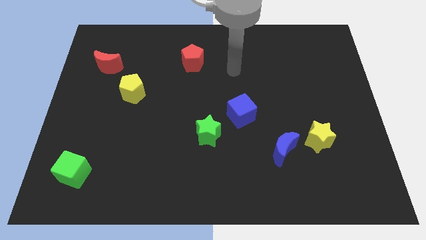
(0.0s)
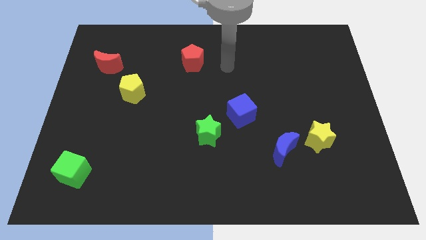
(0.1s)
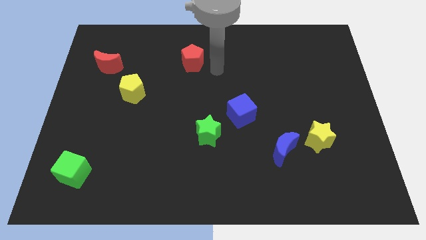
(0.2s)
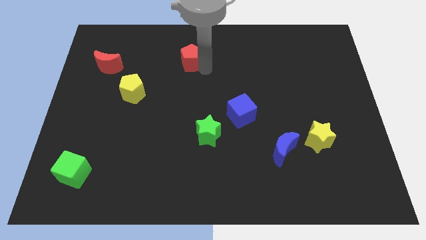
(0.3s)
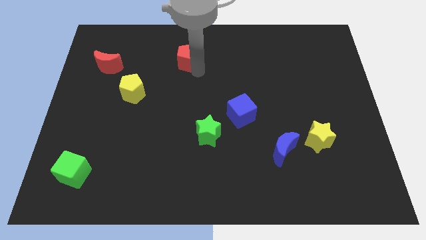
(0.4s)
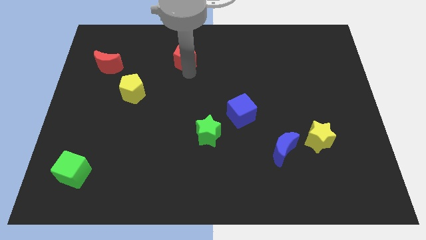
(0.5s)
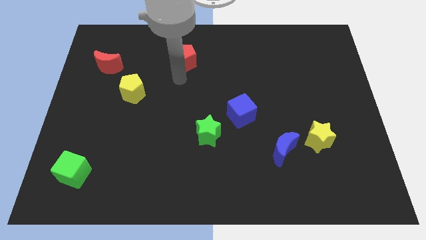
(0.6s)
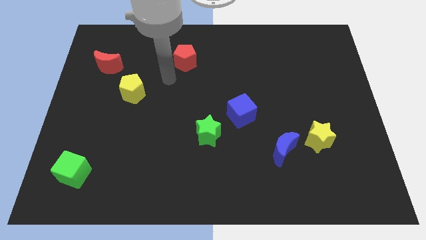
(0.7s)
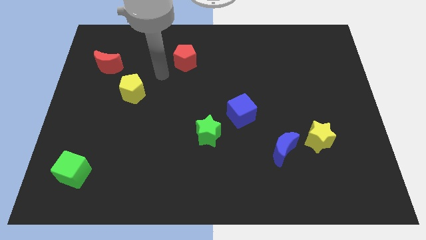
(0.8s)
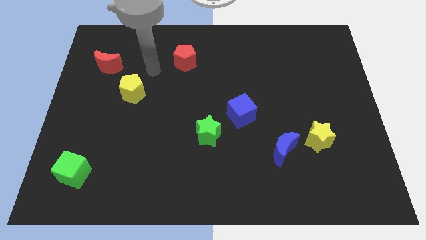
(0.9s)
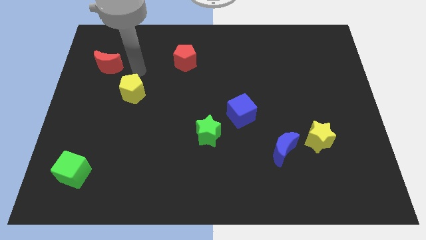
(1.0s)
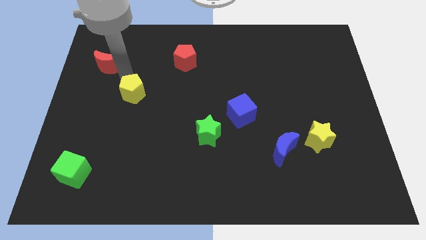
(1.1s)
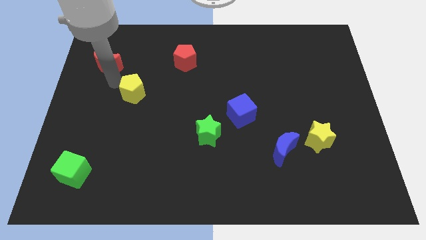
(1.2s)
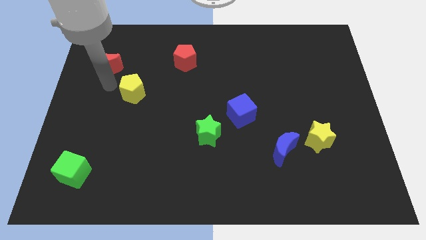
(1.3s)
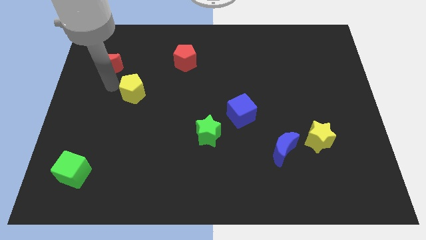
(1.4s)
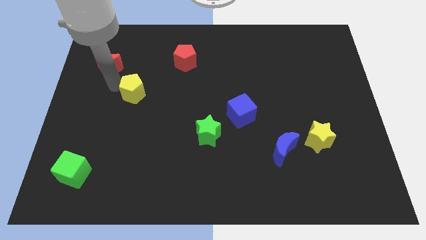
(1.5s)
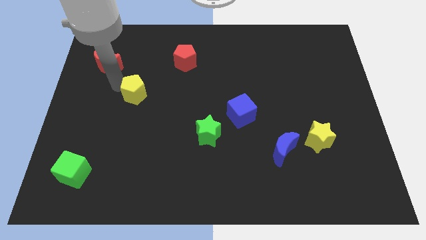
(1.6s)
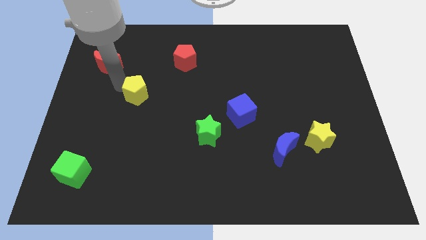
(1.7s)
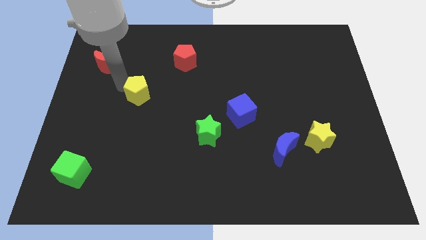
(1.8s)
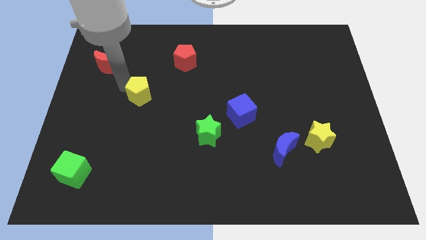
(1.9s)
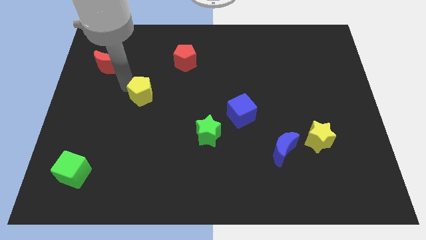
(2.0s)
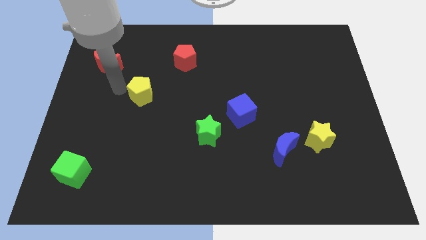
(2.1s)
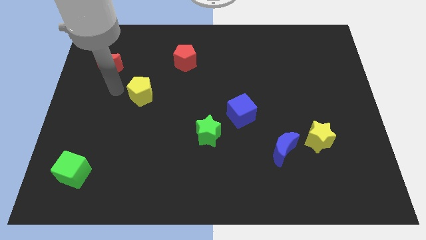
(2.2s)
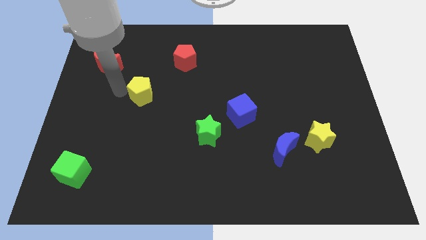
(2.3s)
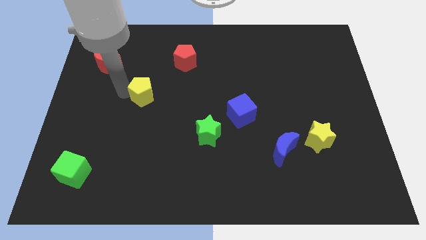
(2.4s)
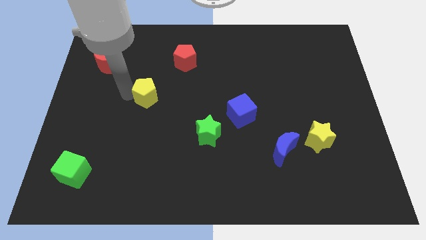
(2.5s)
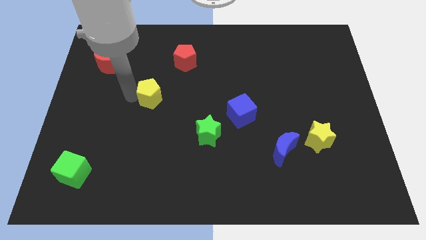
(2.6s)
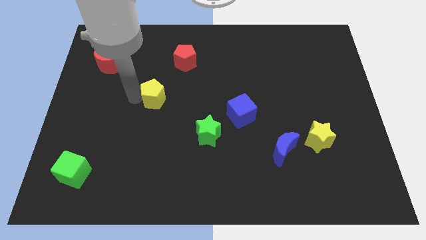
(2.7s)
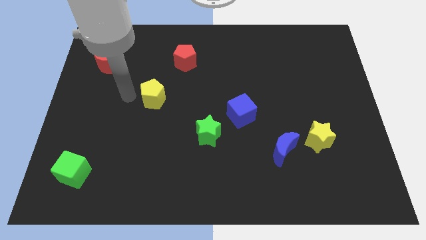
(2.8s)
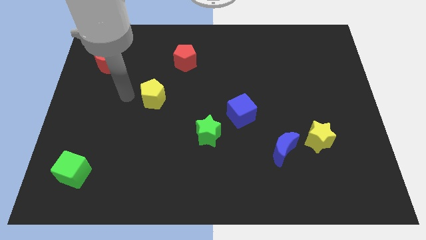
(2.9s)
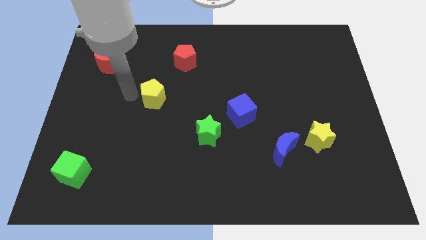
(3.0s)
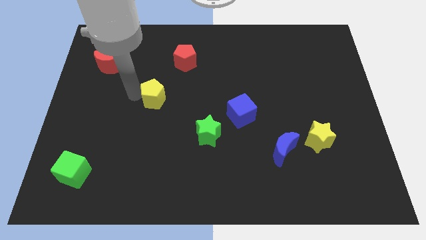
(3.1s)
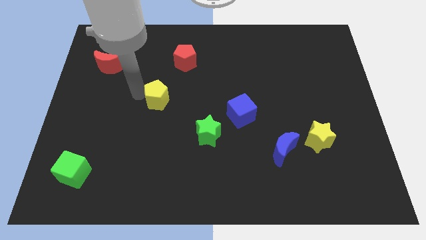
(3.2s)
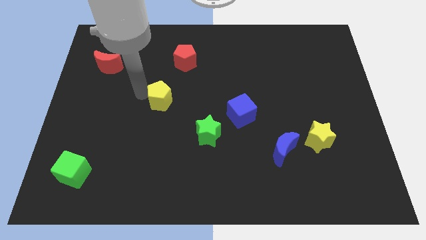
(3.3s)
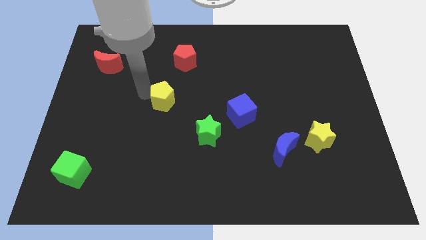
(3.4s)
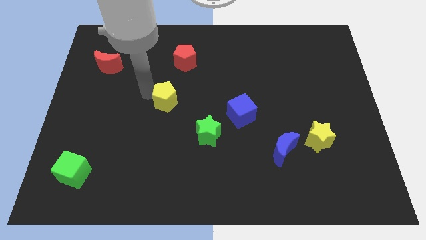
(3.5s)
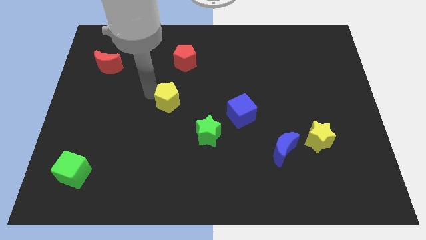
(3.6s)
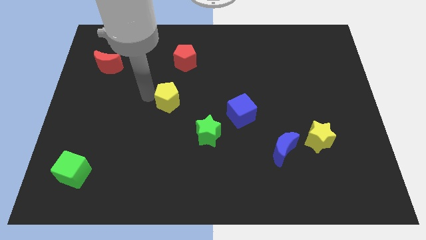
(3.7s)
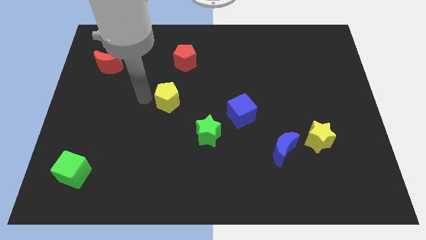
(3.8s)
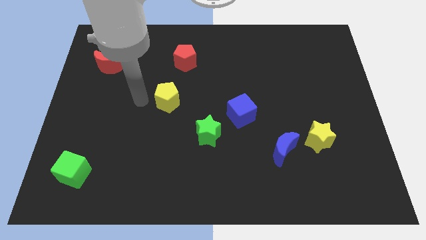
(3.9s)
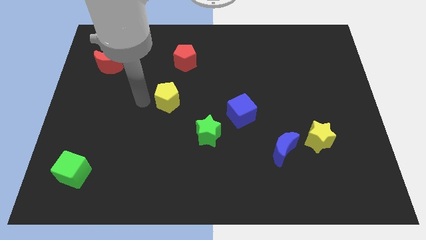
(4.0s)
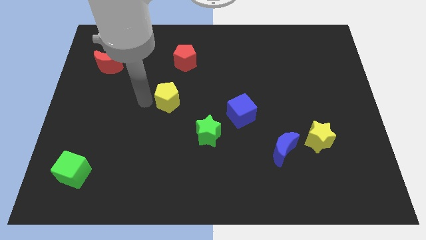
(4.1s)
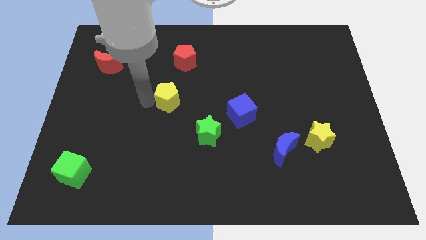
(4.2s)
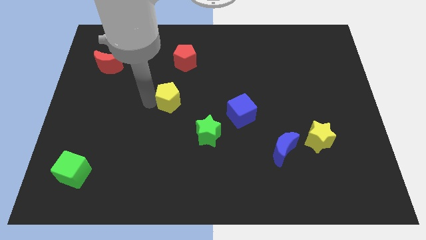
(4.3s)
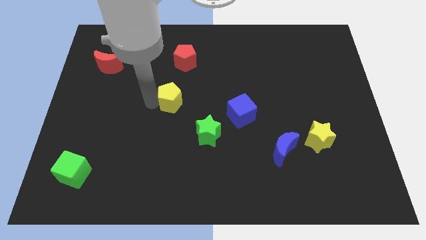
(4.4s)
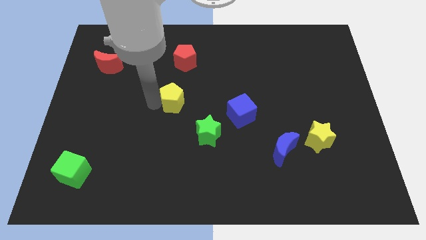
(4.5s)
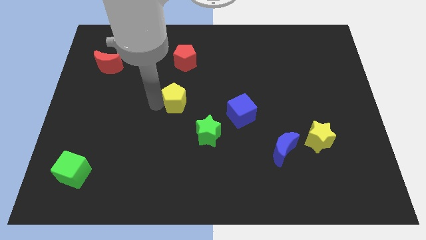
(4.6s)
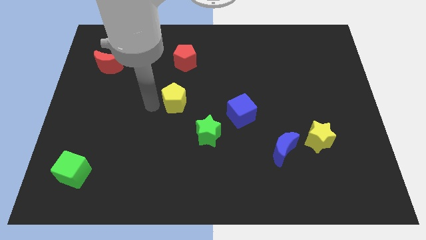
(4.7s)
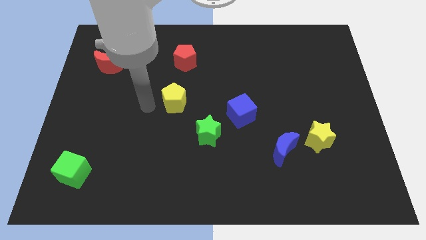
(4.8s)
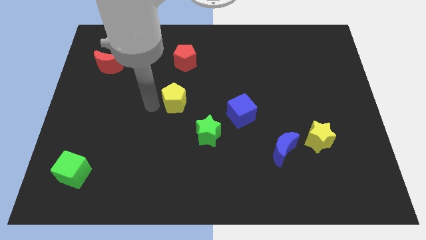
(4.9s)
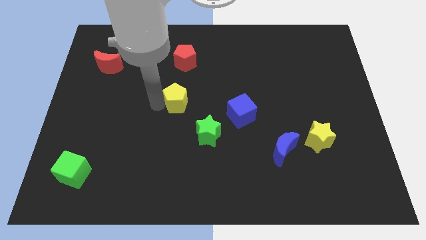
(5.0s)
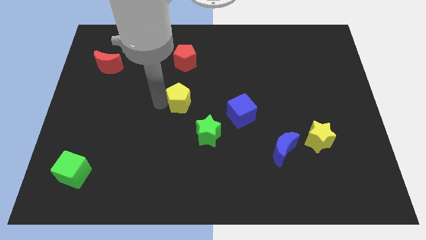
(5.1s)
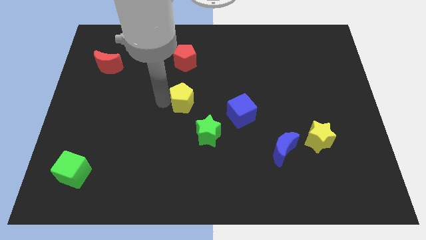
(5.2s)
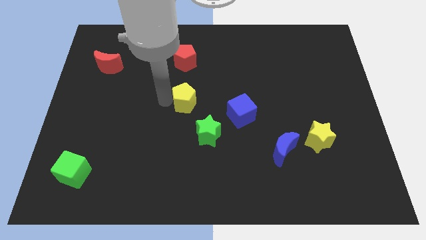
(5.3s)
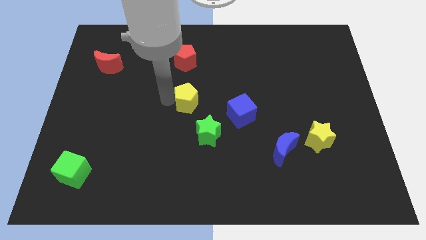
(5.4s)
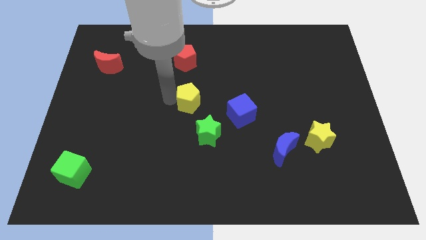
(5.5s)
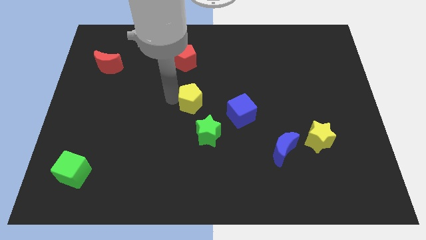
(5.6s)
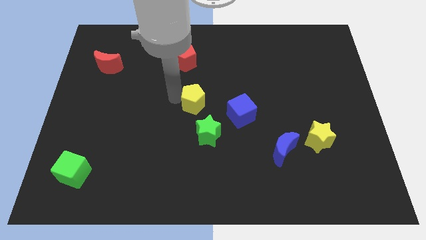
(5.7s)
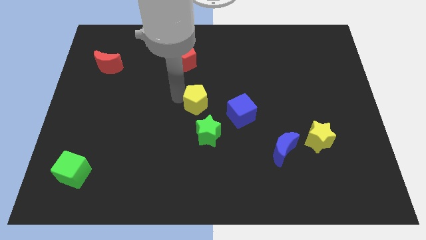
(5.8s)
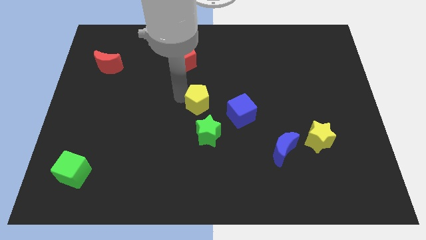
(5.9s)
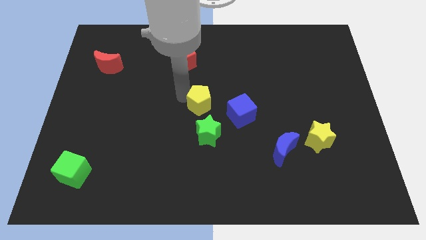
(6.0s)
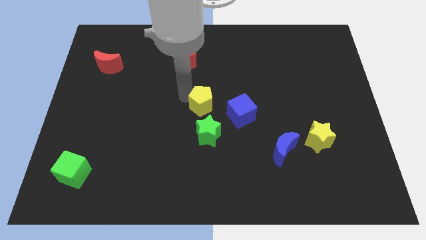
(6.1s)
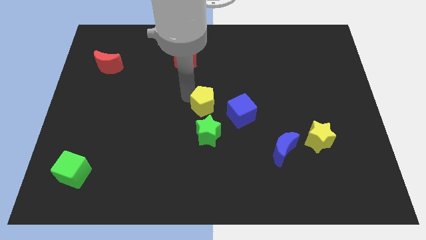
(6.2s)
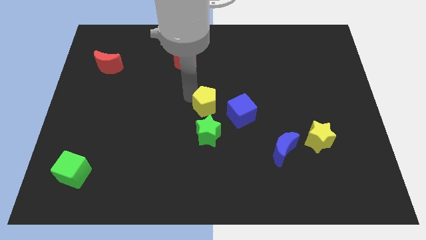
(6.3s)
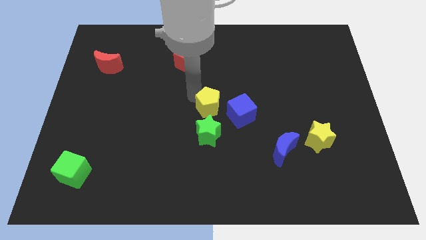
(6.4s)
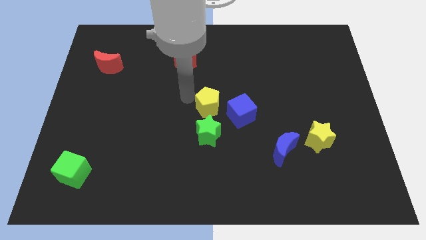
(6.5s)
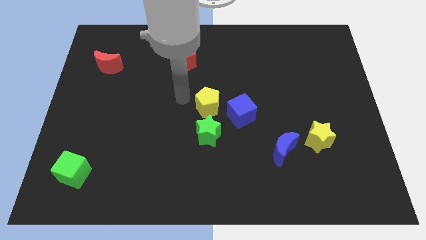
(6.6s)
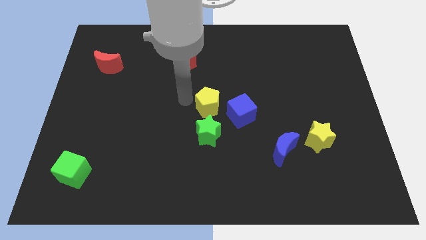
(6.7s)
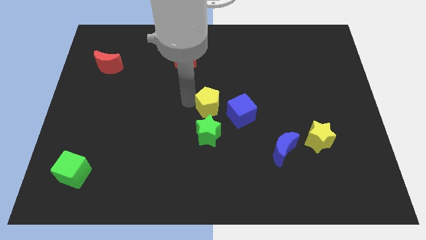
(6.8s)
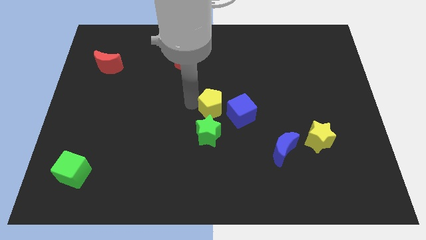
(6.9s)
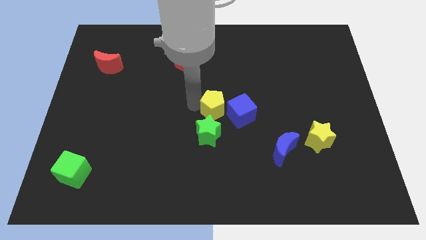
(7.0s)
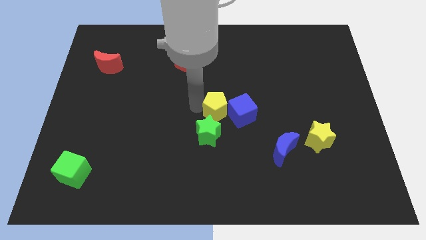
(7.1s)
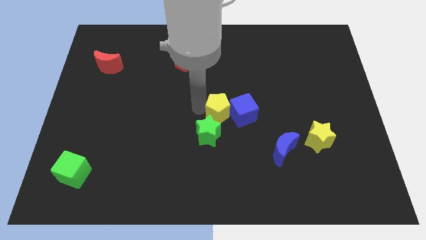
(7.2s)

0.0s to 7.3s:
move the yellow pentagon towards the blue cube

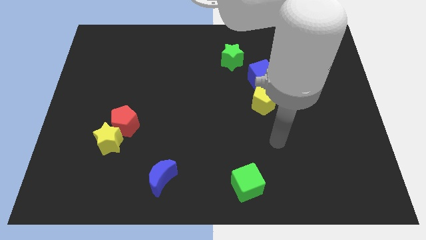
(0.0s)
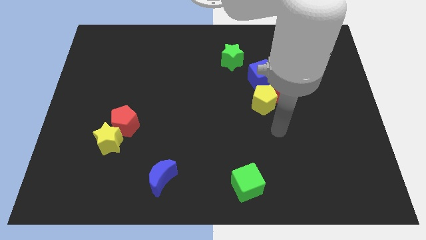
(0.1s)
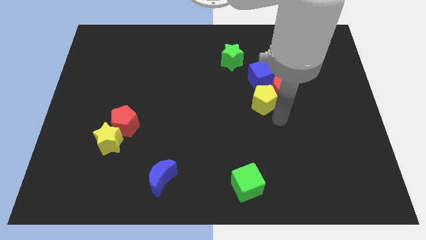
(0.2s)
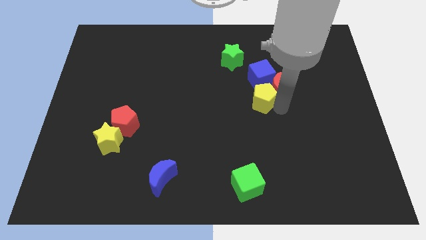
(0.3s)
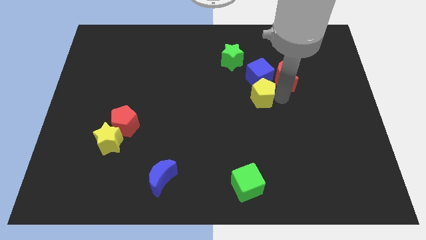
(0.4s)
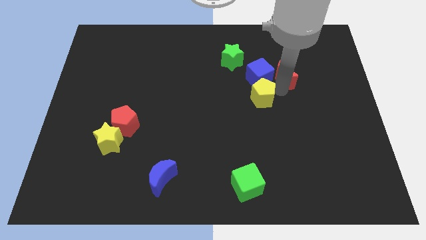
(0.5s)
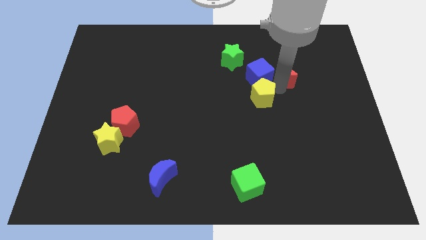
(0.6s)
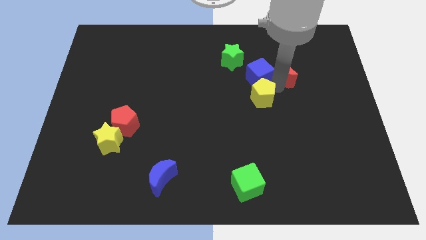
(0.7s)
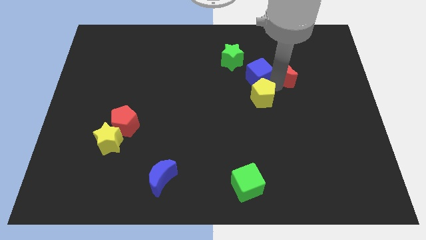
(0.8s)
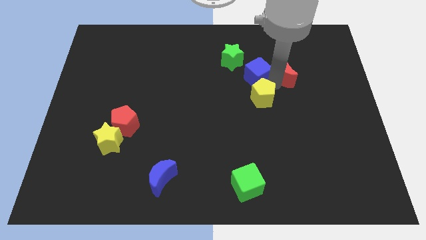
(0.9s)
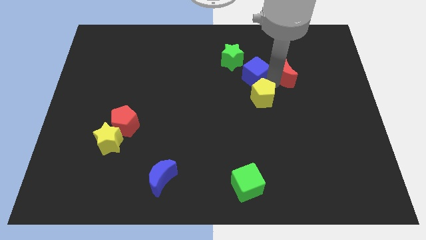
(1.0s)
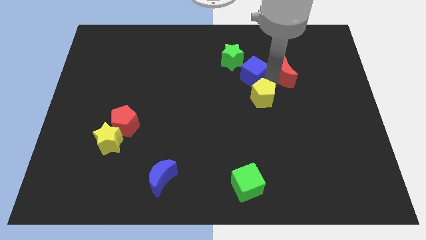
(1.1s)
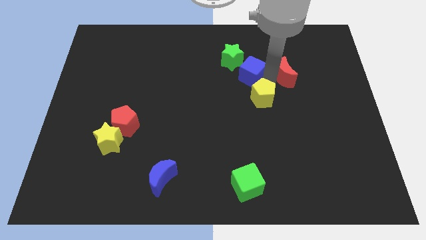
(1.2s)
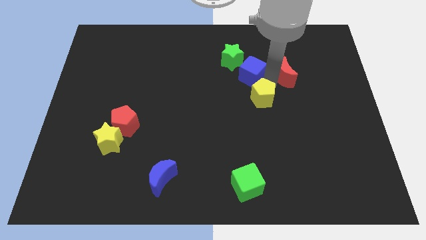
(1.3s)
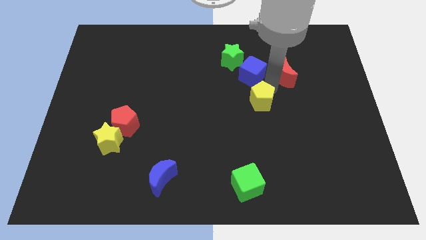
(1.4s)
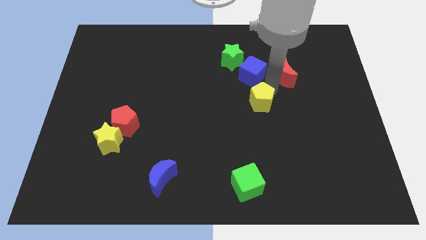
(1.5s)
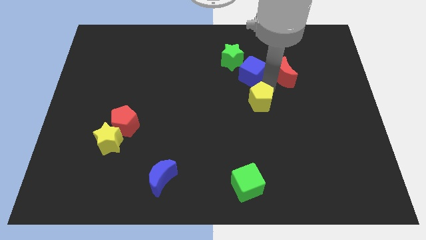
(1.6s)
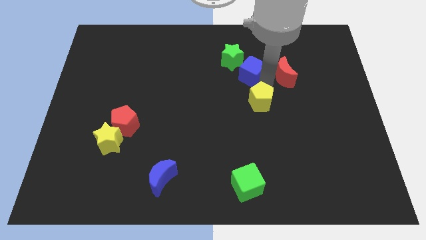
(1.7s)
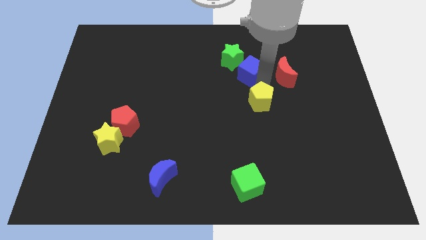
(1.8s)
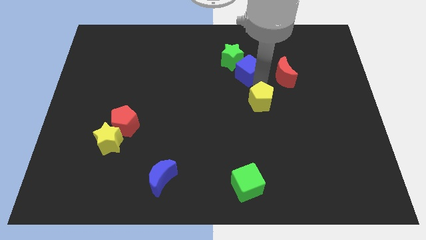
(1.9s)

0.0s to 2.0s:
push the blue cube next to the green star
